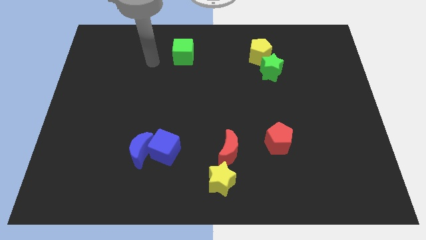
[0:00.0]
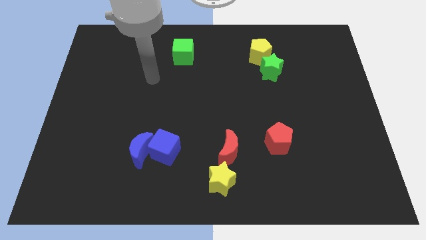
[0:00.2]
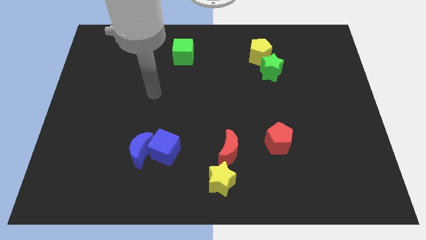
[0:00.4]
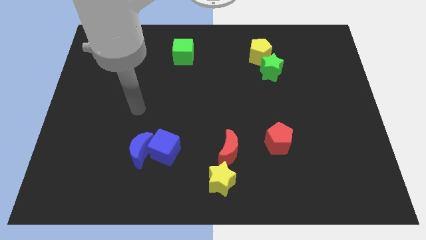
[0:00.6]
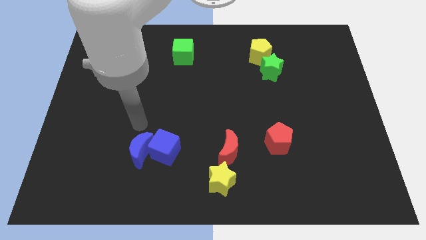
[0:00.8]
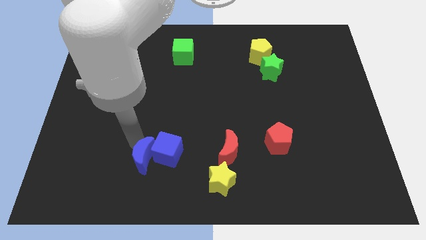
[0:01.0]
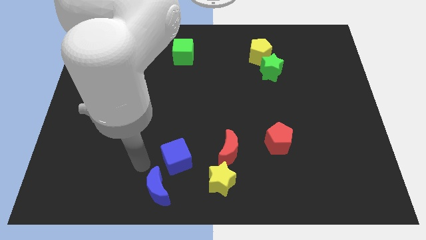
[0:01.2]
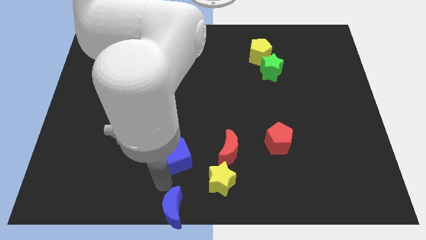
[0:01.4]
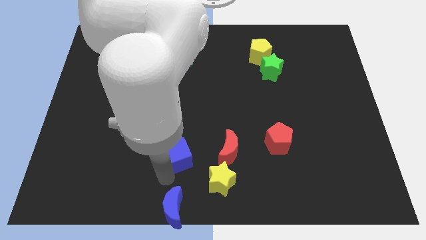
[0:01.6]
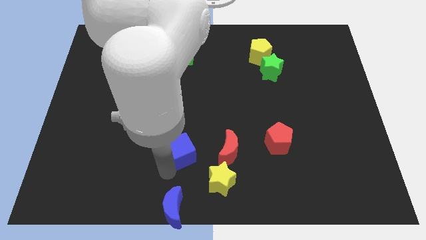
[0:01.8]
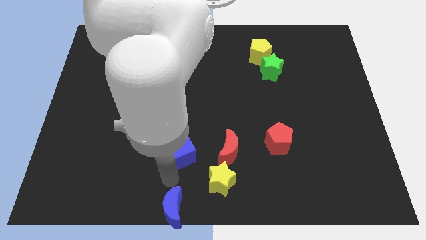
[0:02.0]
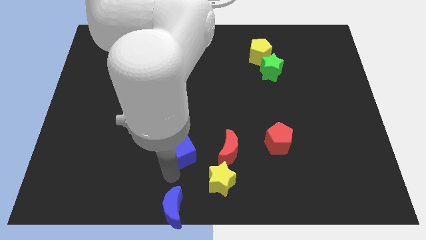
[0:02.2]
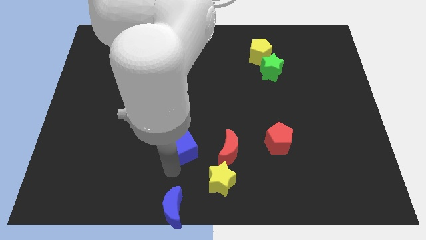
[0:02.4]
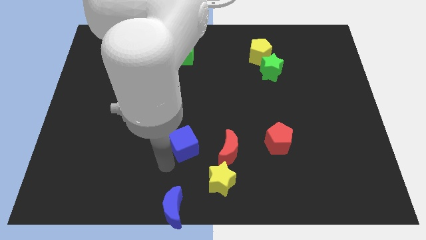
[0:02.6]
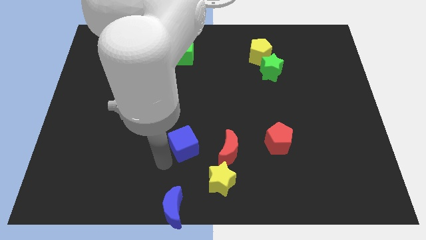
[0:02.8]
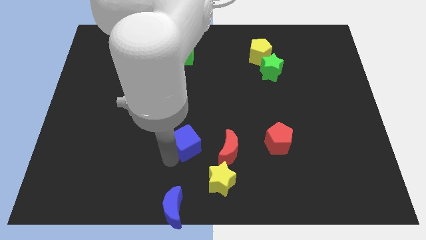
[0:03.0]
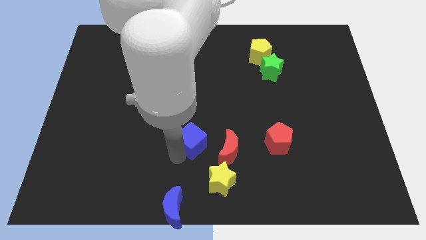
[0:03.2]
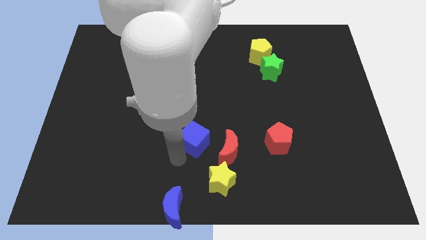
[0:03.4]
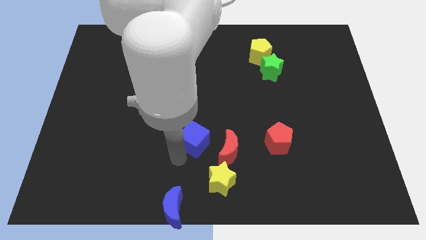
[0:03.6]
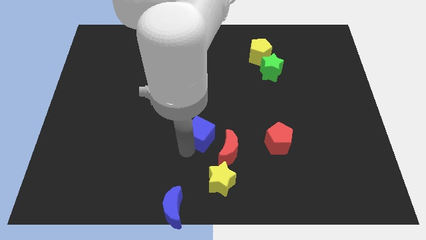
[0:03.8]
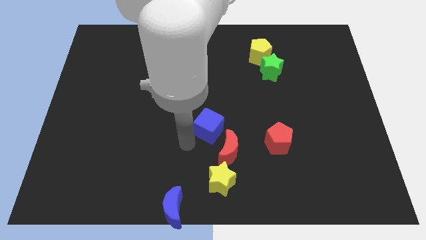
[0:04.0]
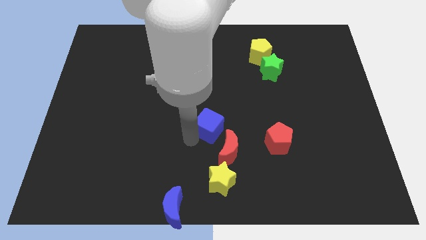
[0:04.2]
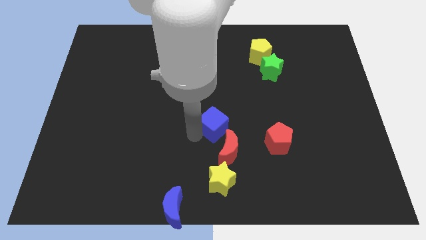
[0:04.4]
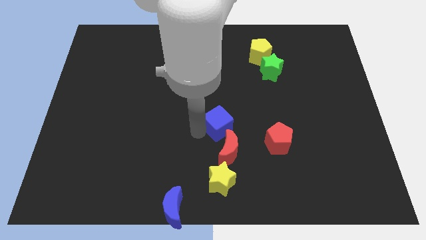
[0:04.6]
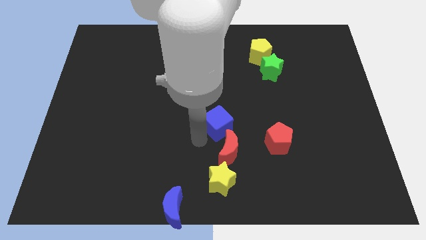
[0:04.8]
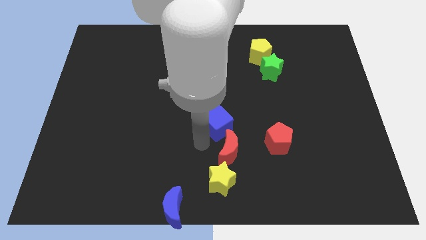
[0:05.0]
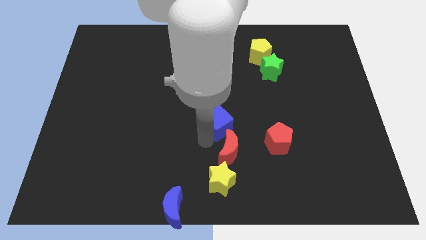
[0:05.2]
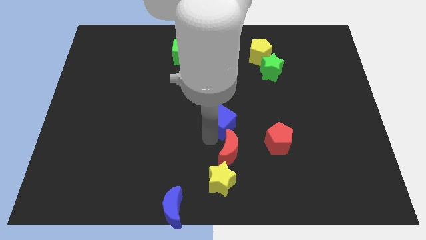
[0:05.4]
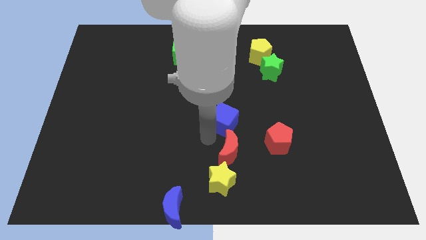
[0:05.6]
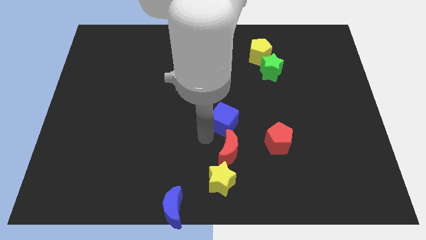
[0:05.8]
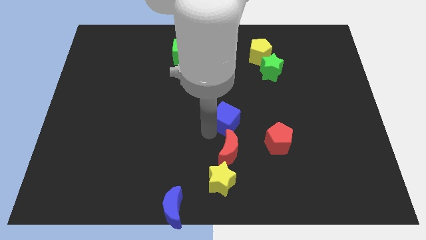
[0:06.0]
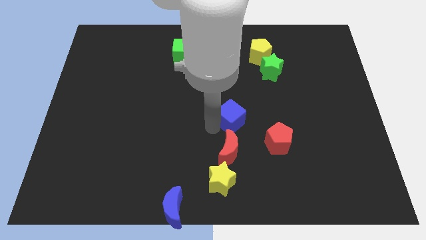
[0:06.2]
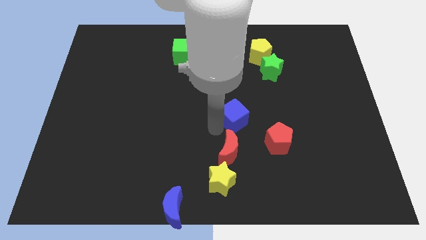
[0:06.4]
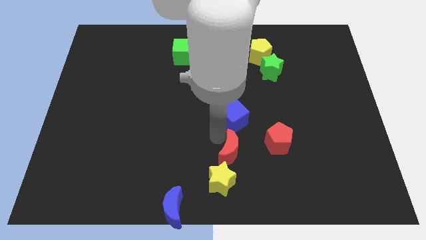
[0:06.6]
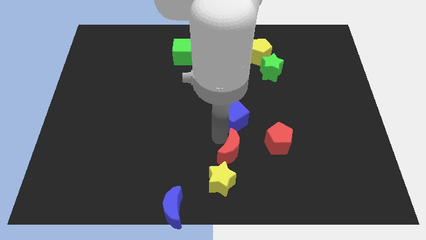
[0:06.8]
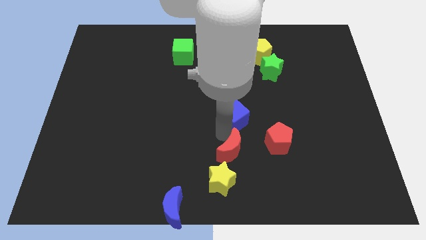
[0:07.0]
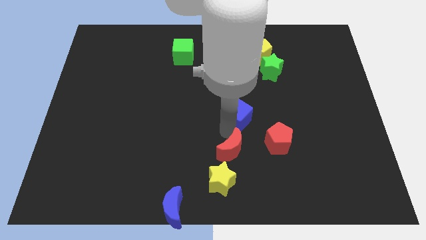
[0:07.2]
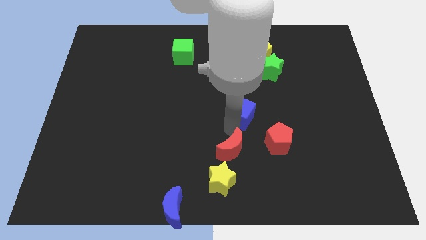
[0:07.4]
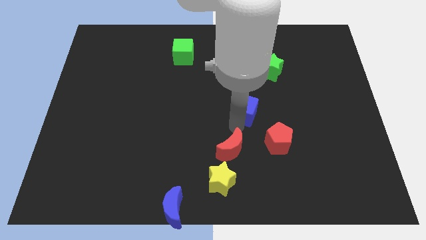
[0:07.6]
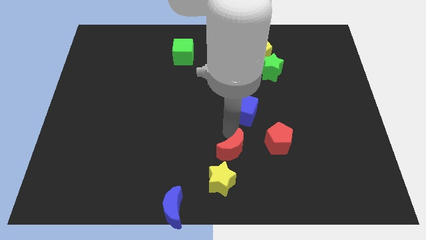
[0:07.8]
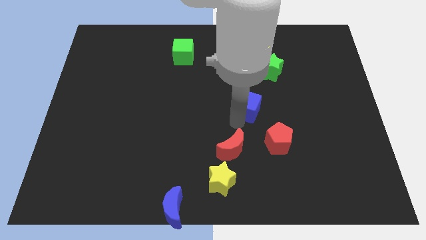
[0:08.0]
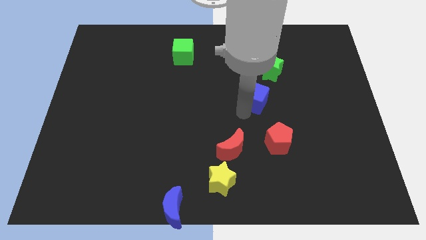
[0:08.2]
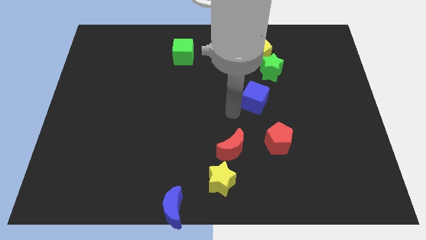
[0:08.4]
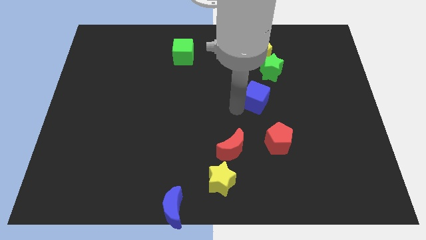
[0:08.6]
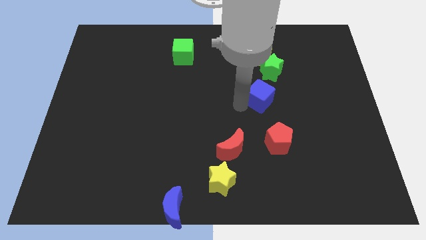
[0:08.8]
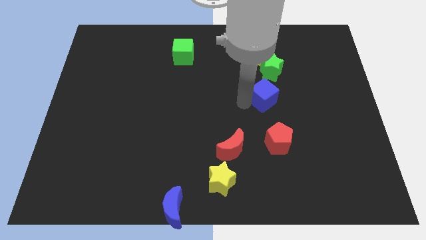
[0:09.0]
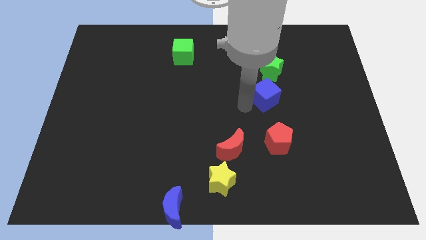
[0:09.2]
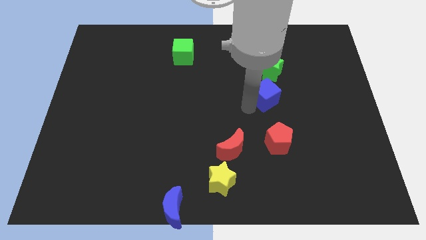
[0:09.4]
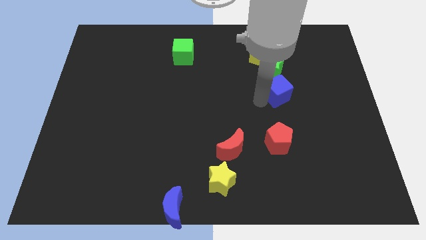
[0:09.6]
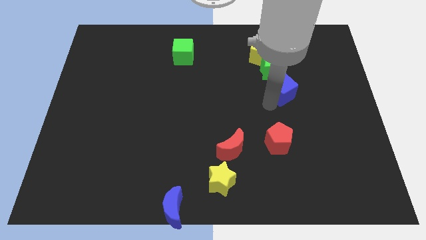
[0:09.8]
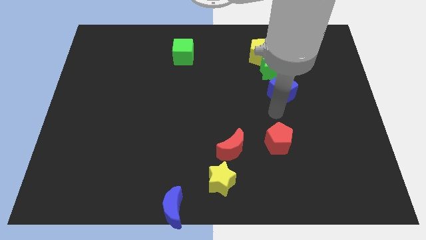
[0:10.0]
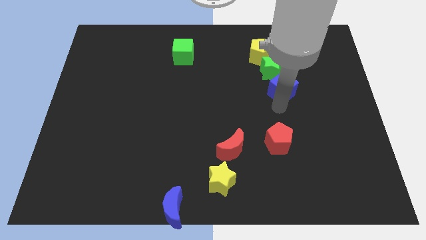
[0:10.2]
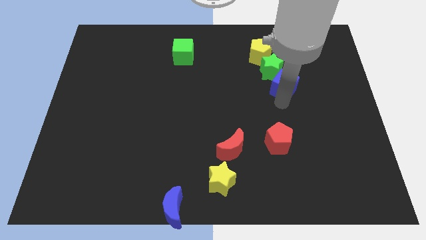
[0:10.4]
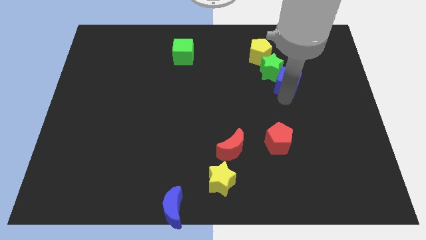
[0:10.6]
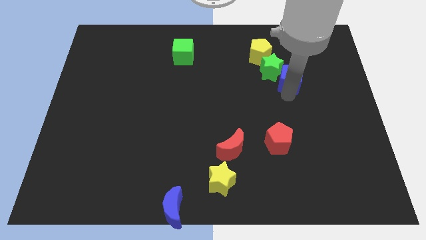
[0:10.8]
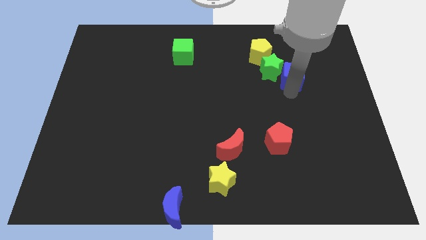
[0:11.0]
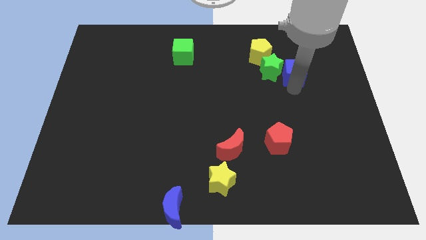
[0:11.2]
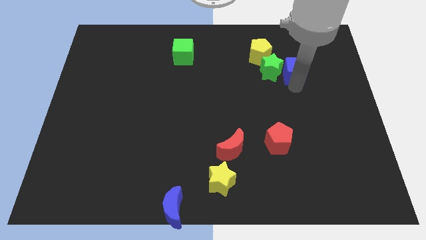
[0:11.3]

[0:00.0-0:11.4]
slide the blue cube to the top right of the green star
